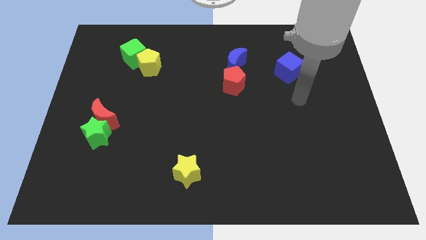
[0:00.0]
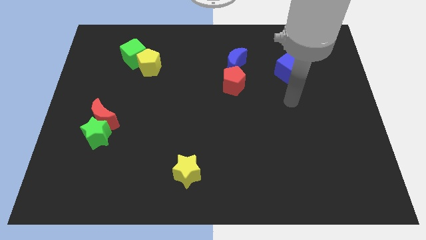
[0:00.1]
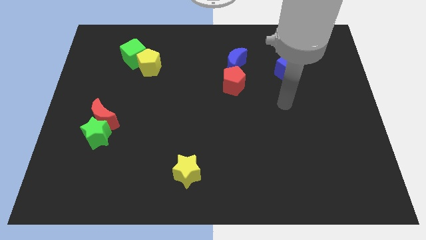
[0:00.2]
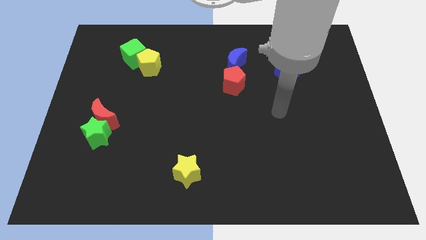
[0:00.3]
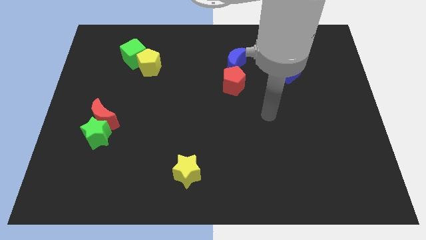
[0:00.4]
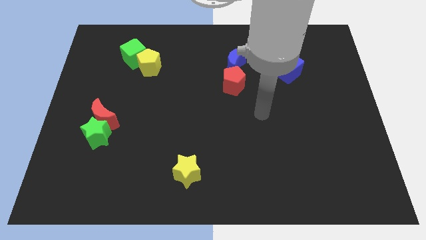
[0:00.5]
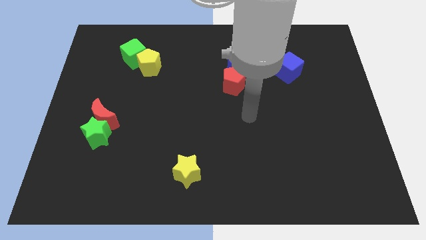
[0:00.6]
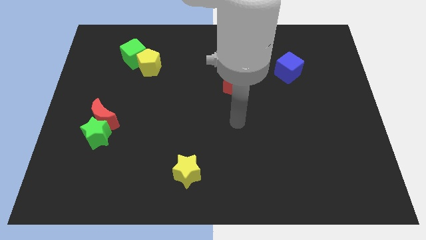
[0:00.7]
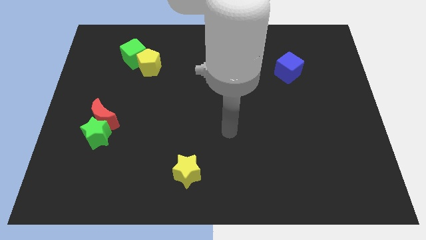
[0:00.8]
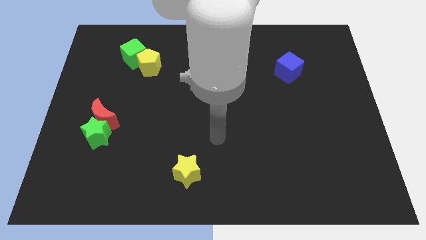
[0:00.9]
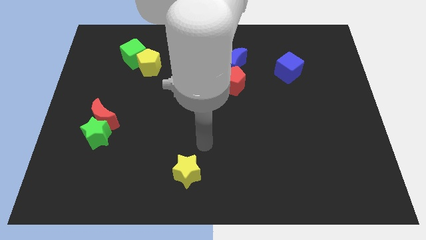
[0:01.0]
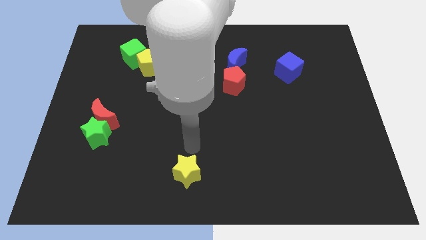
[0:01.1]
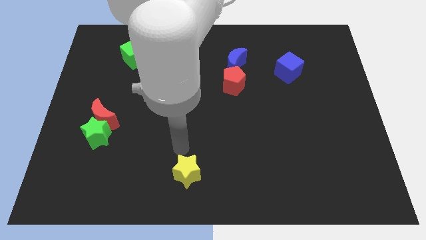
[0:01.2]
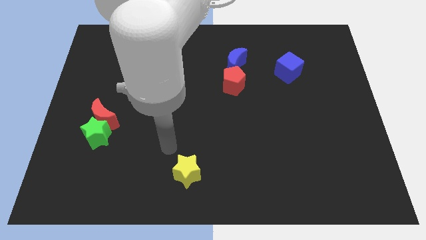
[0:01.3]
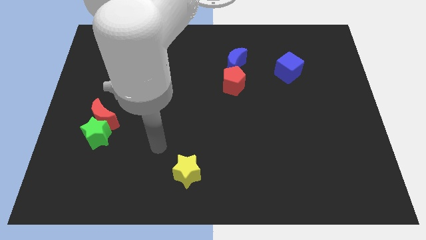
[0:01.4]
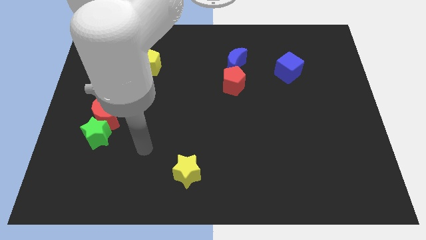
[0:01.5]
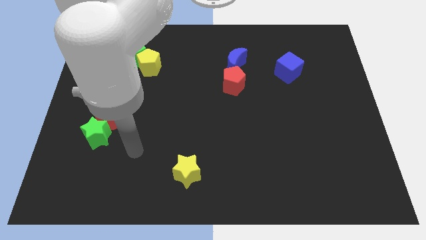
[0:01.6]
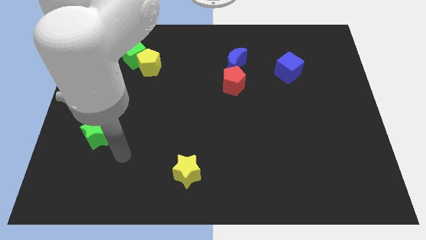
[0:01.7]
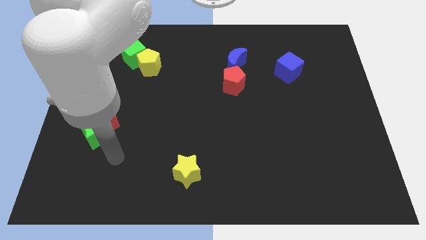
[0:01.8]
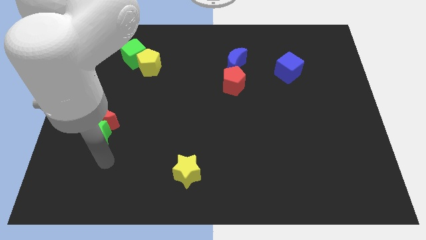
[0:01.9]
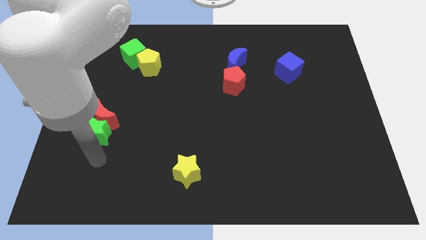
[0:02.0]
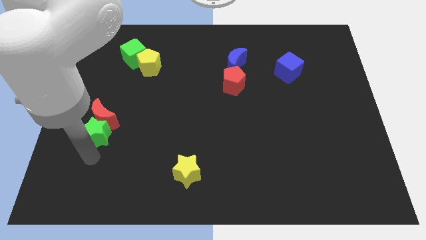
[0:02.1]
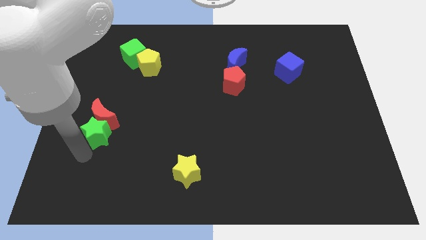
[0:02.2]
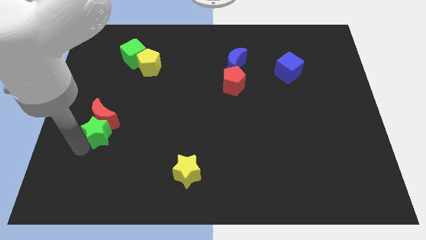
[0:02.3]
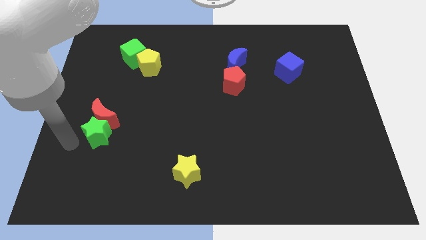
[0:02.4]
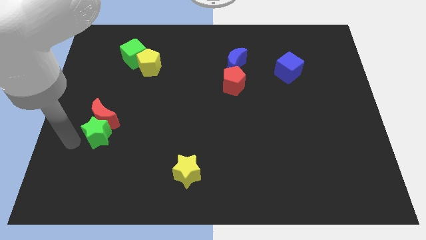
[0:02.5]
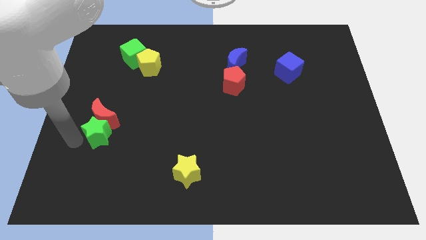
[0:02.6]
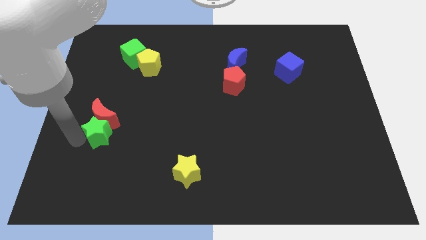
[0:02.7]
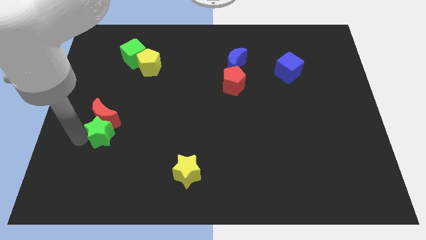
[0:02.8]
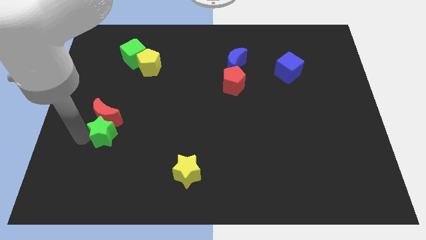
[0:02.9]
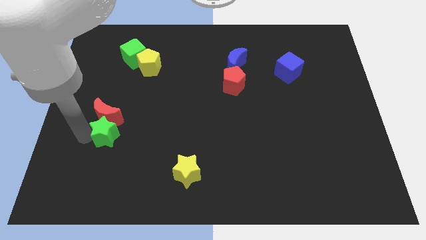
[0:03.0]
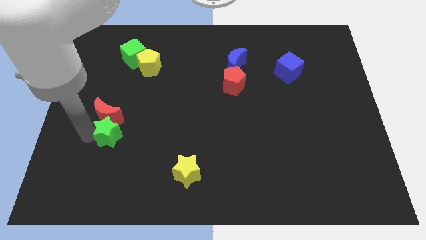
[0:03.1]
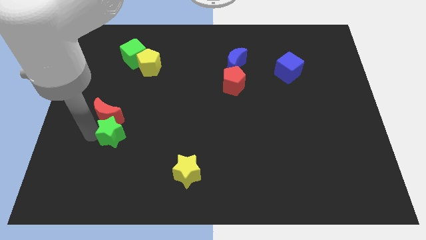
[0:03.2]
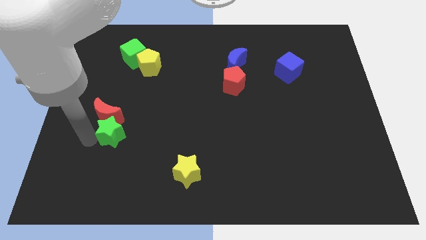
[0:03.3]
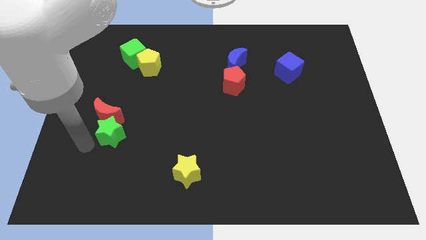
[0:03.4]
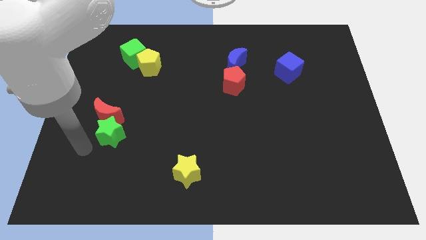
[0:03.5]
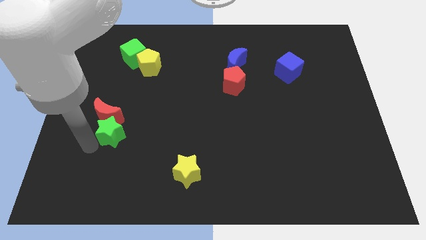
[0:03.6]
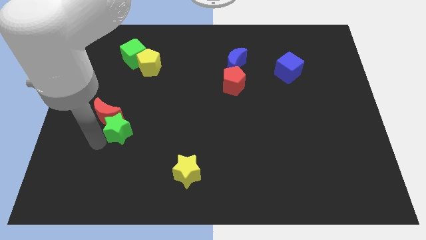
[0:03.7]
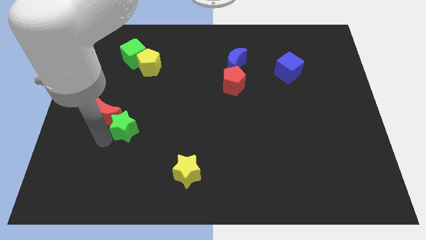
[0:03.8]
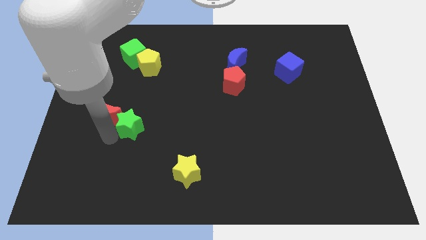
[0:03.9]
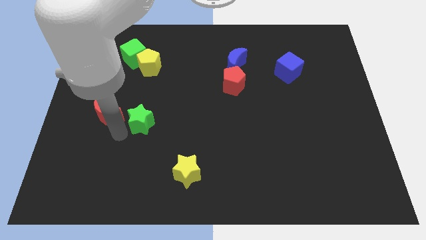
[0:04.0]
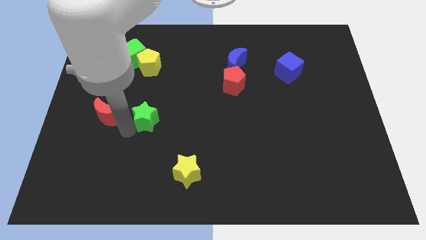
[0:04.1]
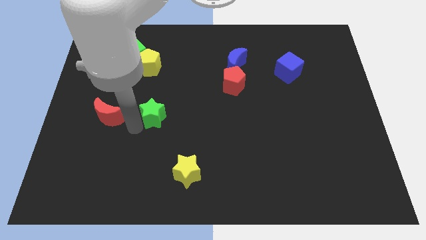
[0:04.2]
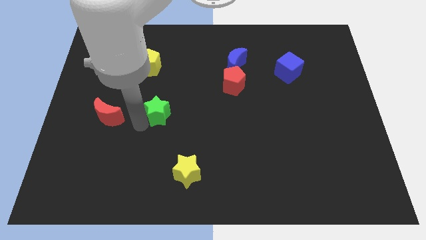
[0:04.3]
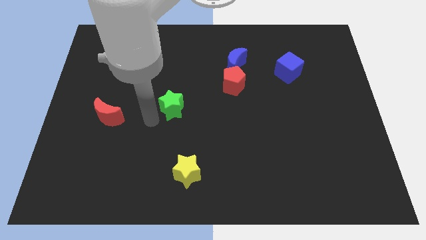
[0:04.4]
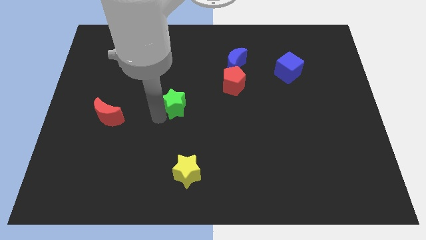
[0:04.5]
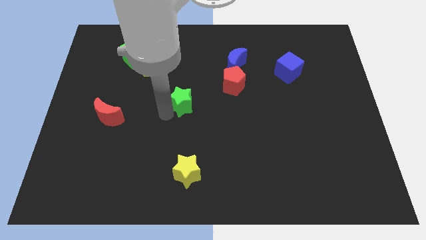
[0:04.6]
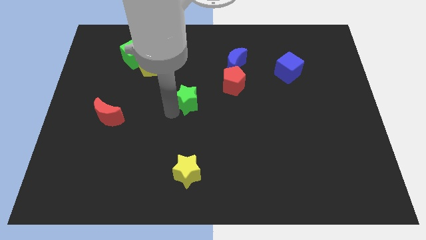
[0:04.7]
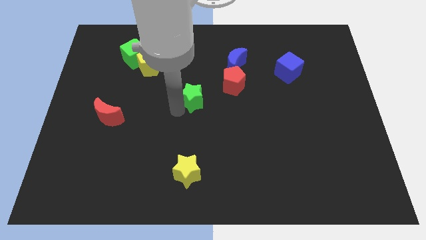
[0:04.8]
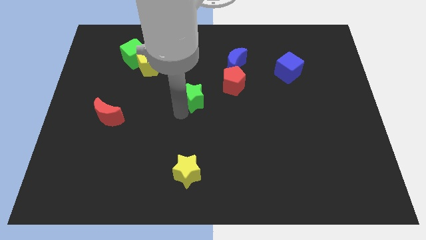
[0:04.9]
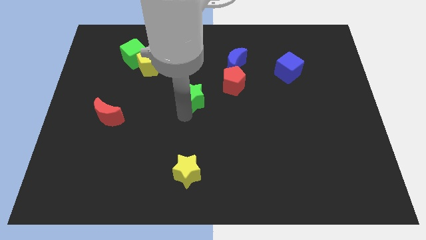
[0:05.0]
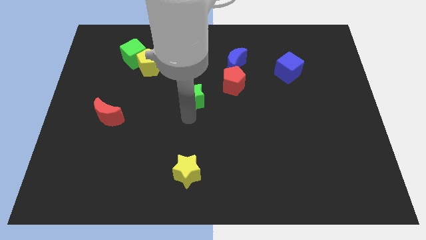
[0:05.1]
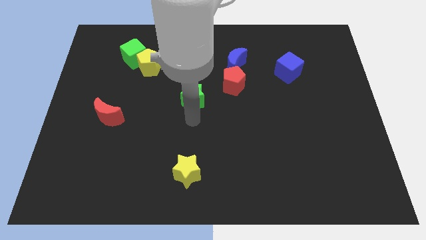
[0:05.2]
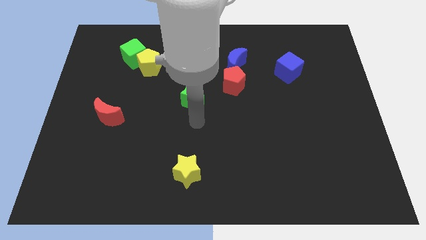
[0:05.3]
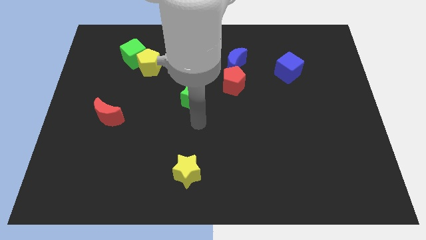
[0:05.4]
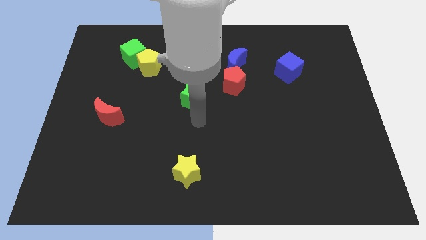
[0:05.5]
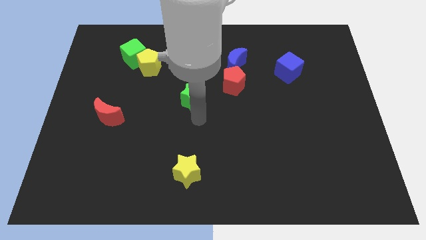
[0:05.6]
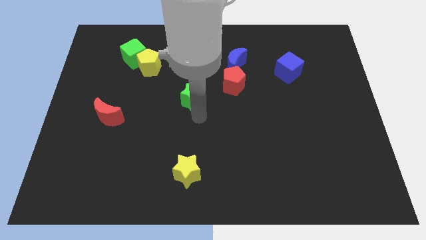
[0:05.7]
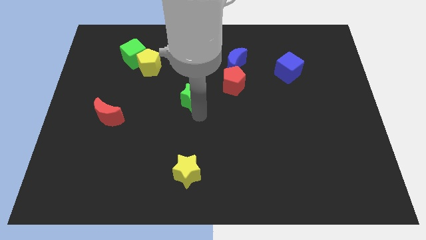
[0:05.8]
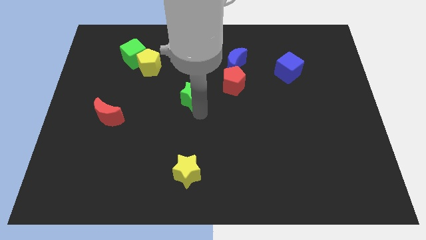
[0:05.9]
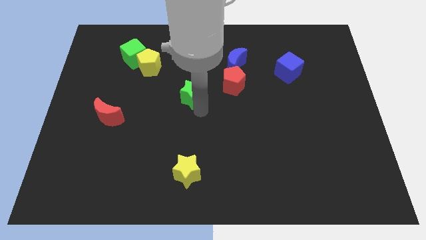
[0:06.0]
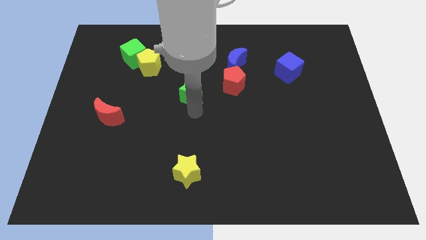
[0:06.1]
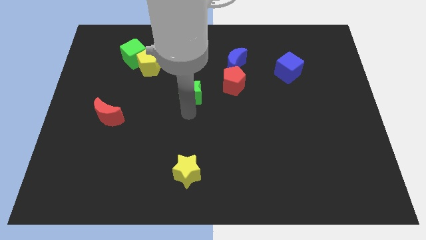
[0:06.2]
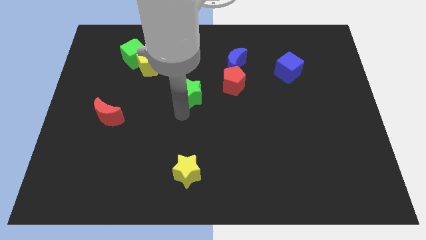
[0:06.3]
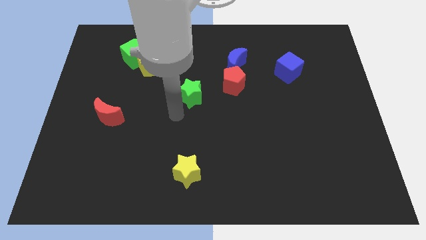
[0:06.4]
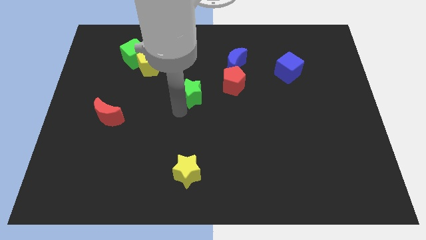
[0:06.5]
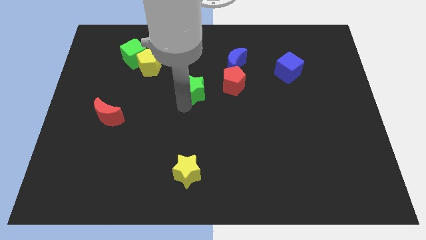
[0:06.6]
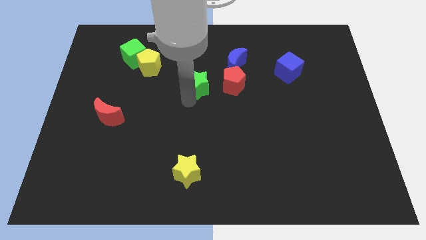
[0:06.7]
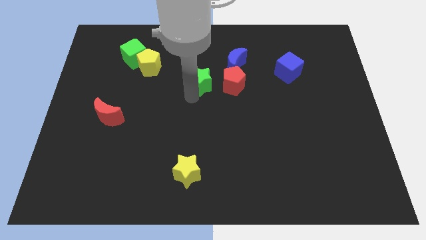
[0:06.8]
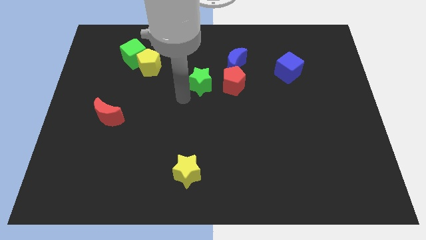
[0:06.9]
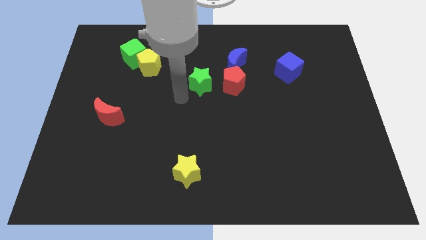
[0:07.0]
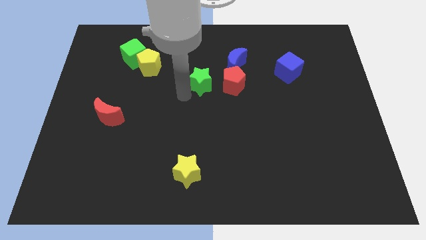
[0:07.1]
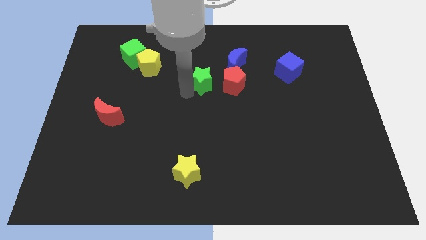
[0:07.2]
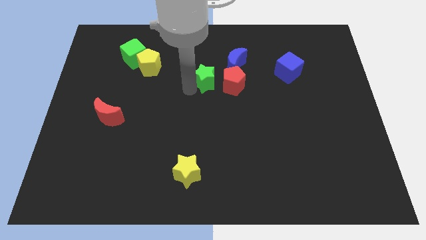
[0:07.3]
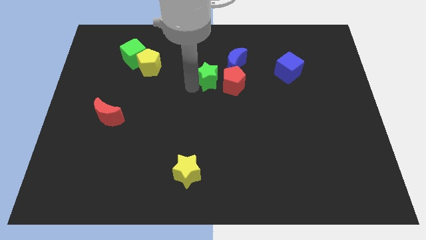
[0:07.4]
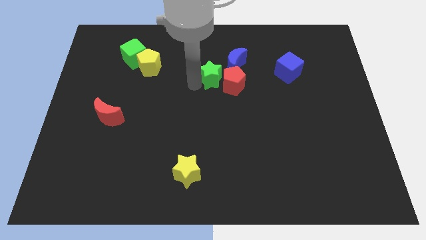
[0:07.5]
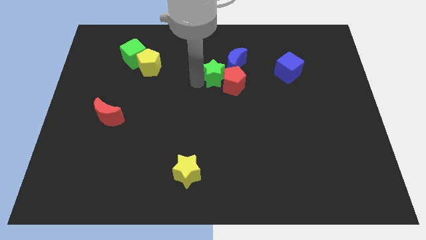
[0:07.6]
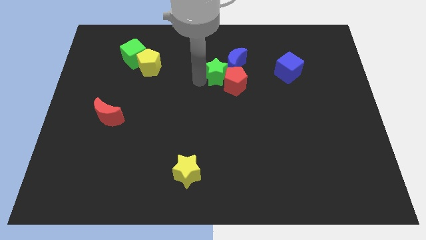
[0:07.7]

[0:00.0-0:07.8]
put the green star towards the blue moon
